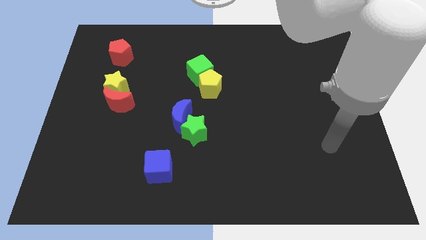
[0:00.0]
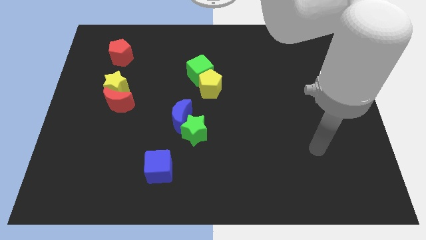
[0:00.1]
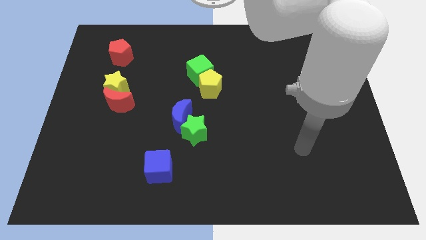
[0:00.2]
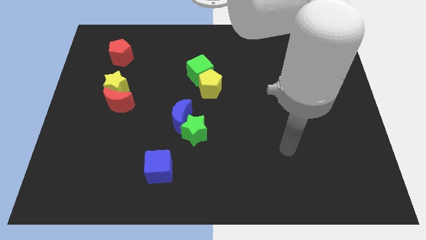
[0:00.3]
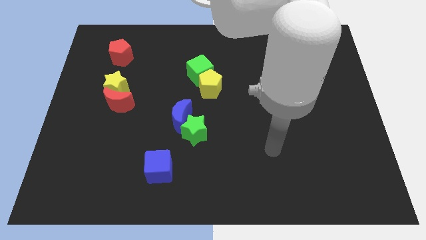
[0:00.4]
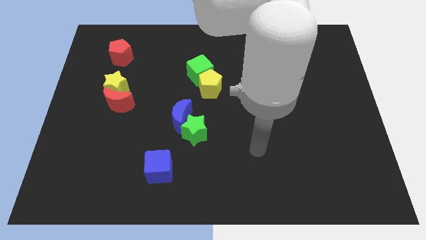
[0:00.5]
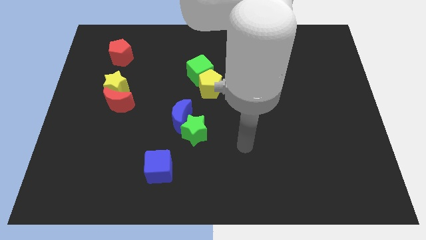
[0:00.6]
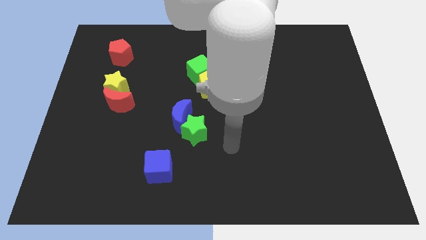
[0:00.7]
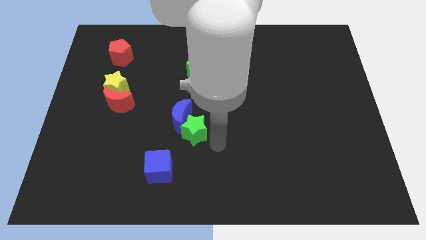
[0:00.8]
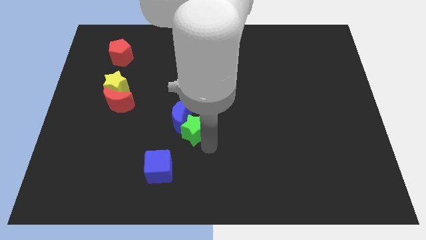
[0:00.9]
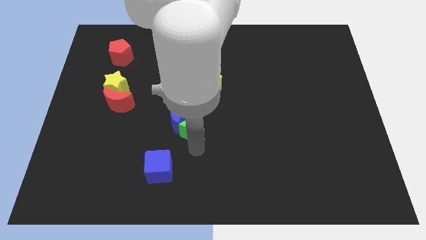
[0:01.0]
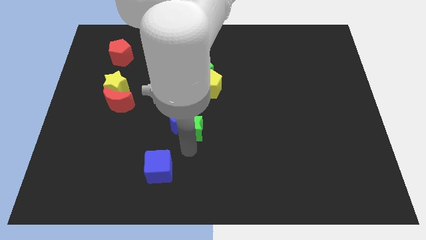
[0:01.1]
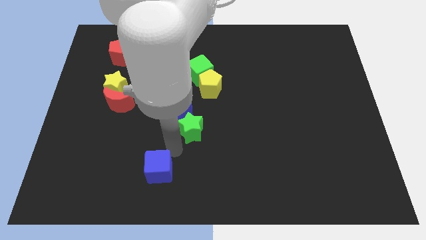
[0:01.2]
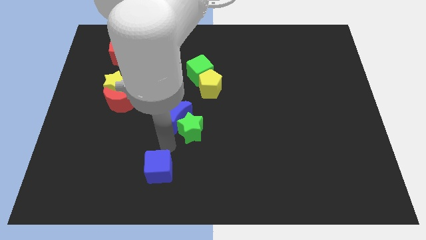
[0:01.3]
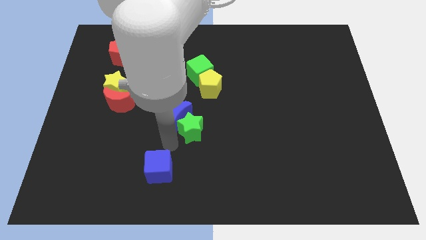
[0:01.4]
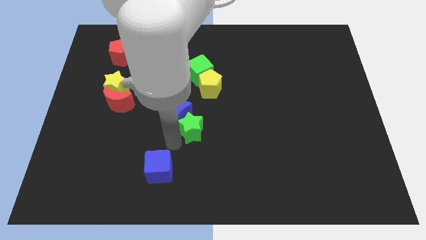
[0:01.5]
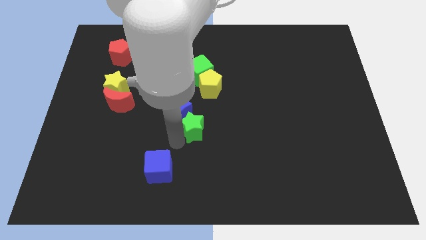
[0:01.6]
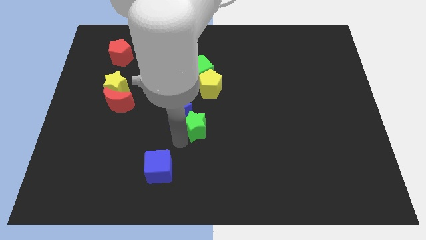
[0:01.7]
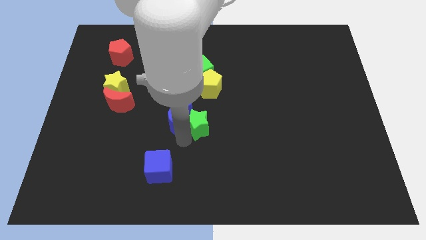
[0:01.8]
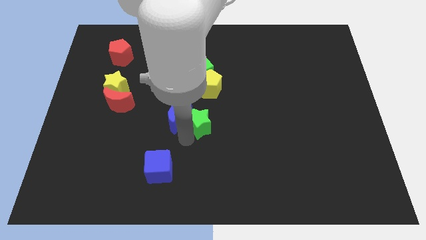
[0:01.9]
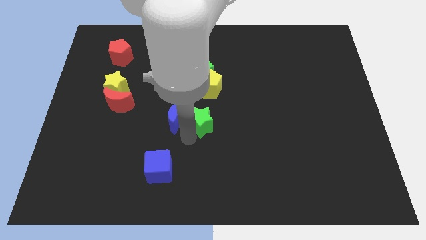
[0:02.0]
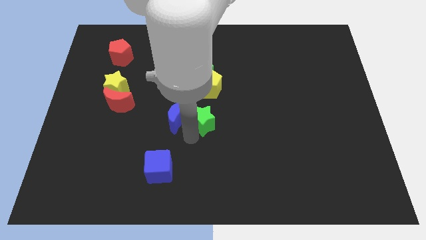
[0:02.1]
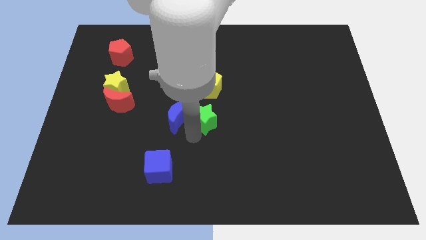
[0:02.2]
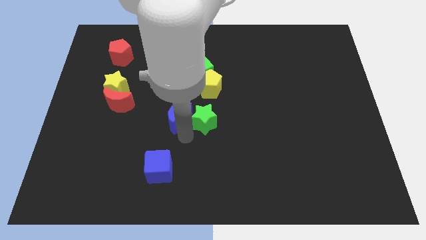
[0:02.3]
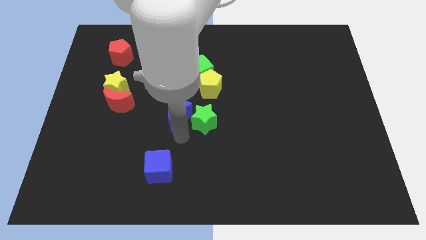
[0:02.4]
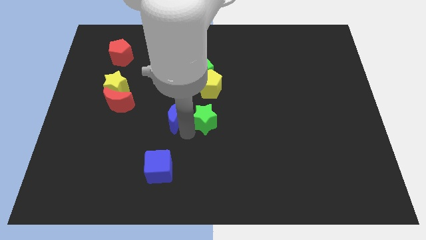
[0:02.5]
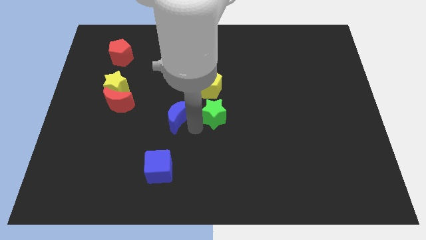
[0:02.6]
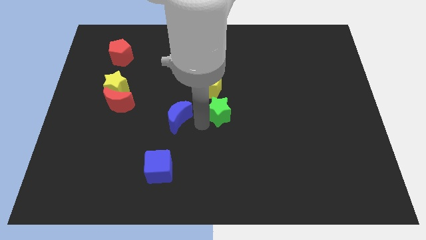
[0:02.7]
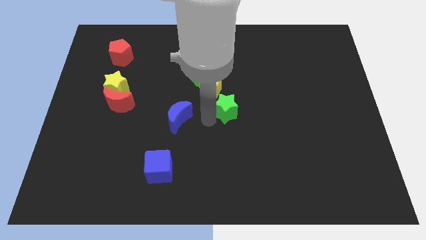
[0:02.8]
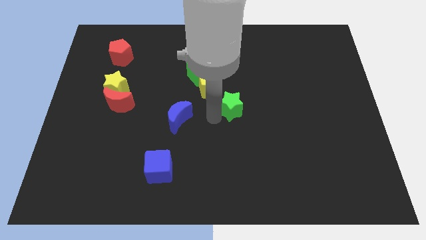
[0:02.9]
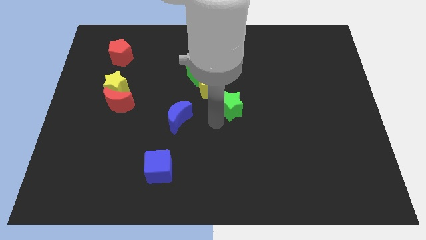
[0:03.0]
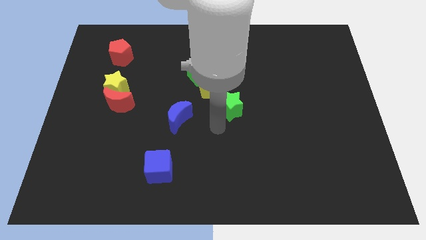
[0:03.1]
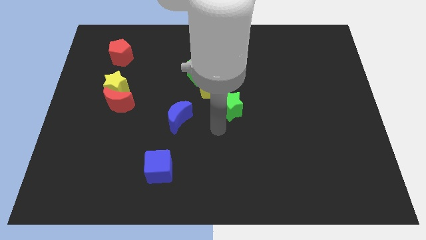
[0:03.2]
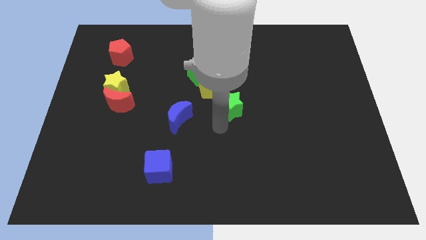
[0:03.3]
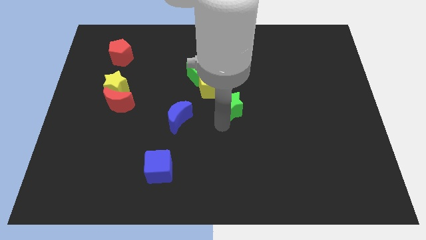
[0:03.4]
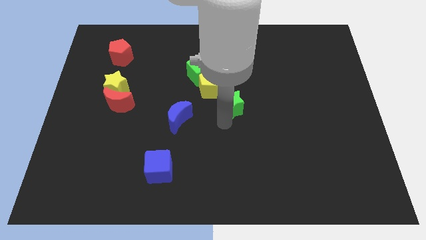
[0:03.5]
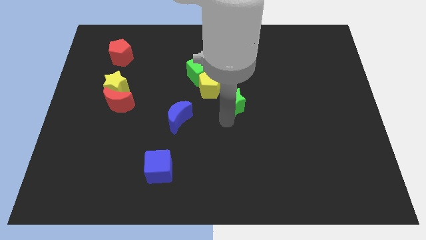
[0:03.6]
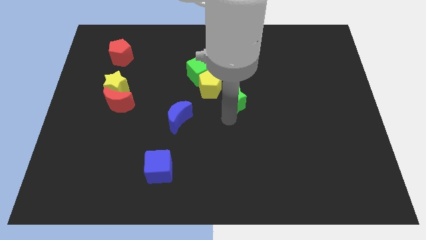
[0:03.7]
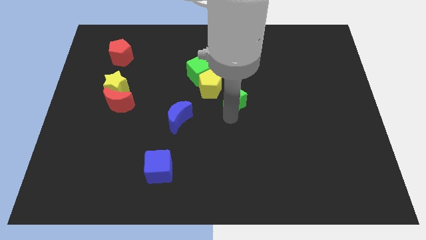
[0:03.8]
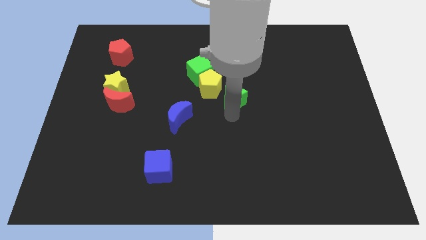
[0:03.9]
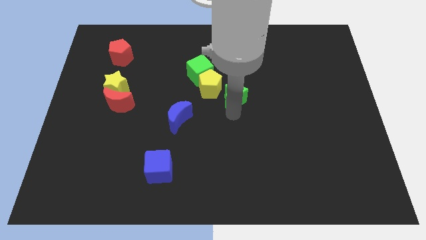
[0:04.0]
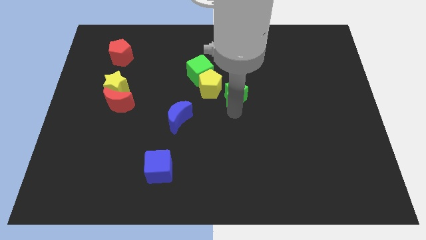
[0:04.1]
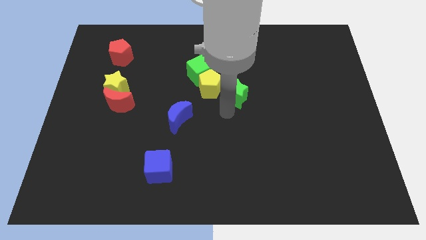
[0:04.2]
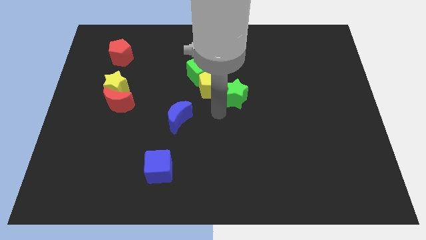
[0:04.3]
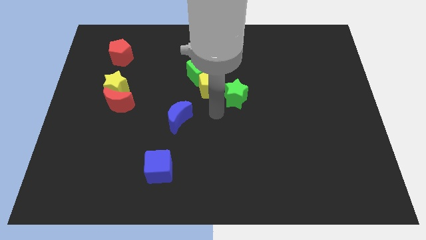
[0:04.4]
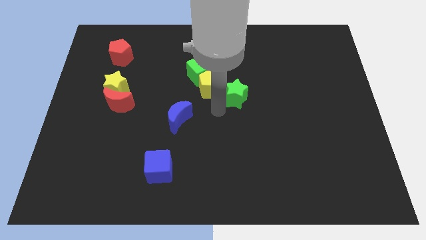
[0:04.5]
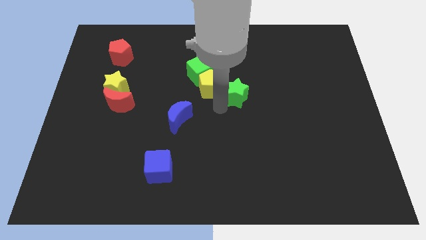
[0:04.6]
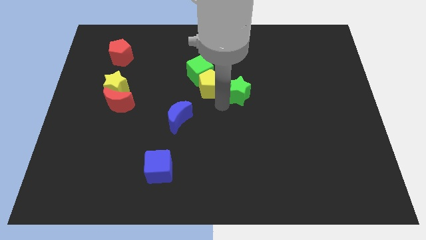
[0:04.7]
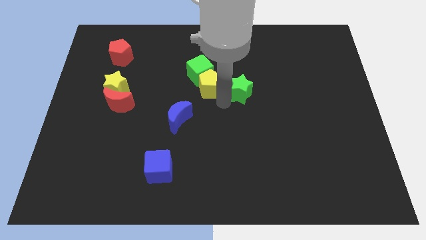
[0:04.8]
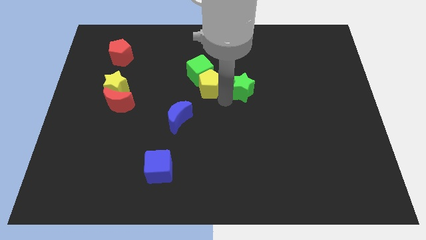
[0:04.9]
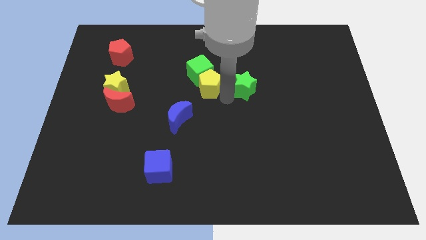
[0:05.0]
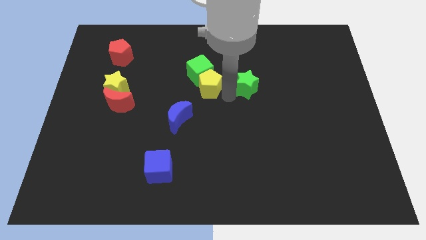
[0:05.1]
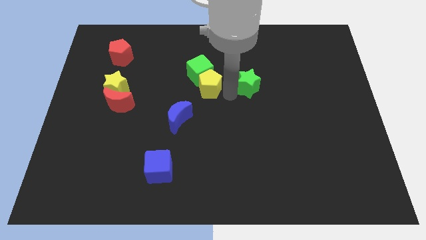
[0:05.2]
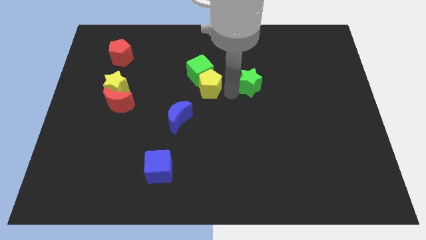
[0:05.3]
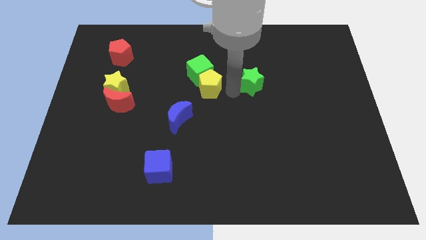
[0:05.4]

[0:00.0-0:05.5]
move the green star upwards and to the right diagonally

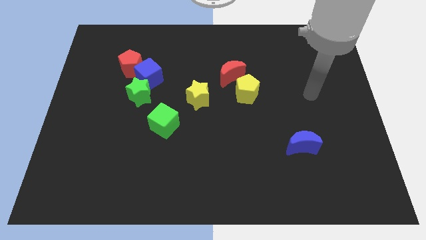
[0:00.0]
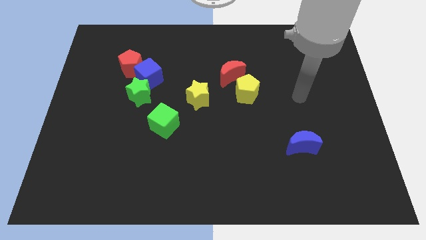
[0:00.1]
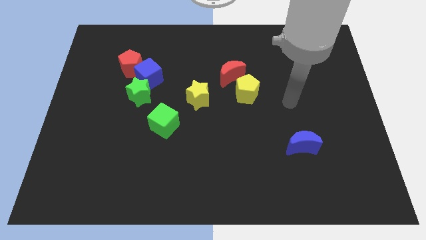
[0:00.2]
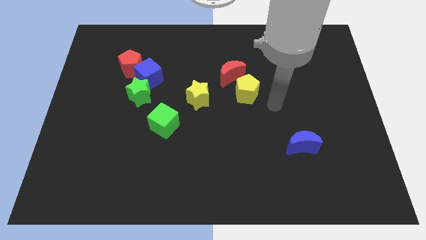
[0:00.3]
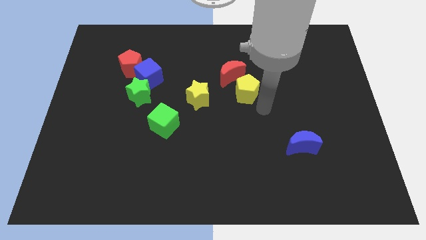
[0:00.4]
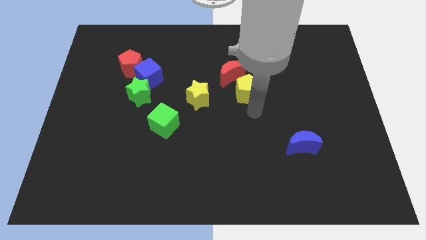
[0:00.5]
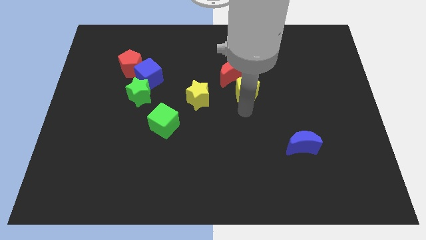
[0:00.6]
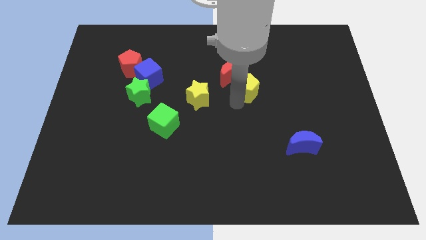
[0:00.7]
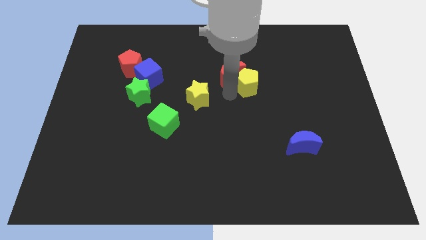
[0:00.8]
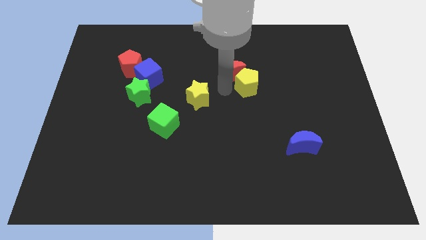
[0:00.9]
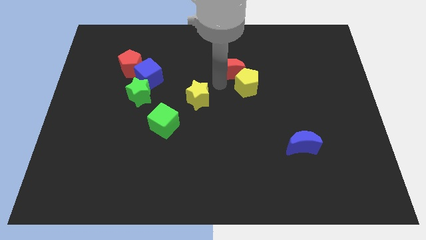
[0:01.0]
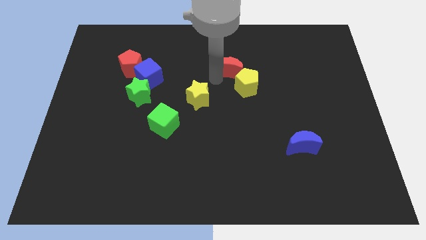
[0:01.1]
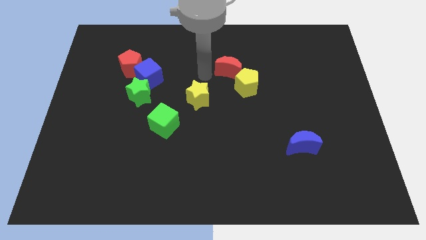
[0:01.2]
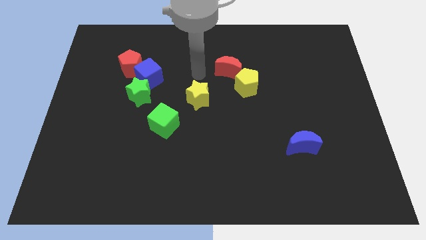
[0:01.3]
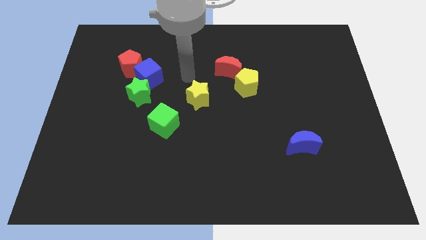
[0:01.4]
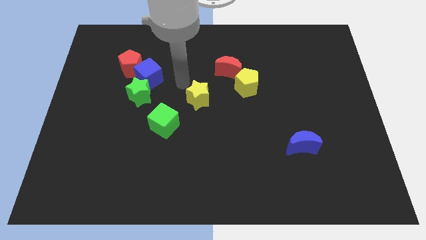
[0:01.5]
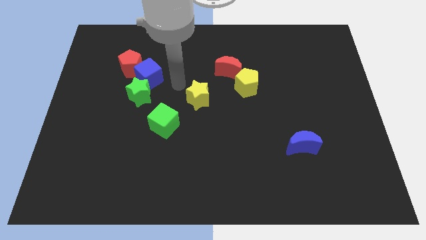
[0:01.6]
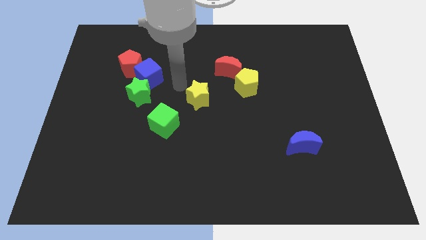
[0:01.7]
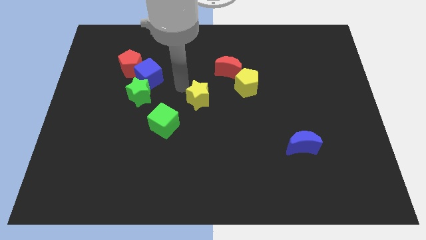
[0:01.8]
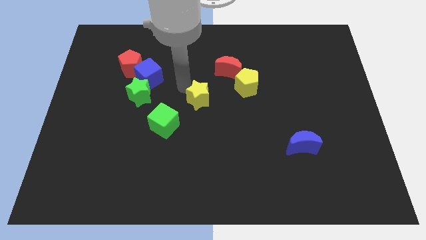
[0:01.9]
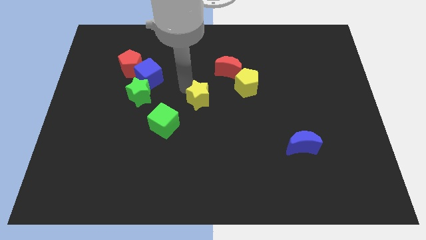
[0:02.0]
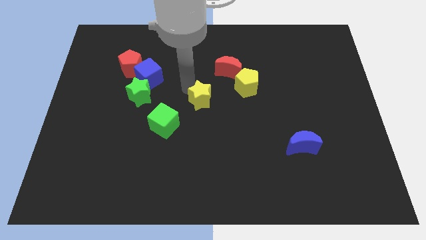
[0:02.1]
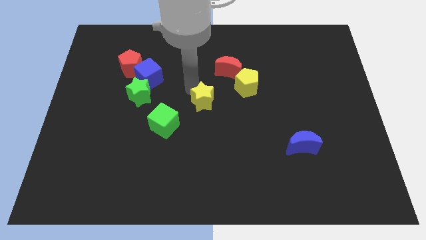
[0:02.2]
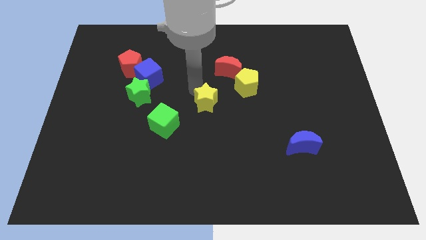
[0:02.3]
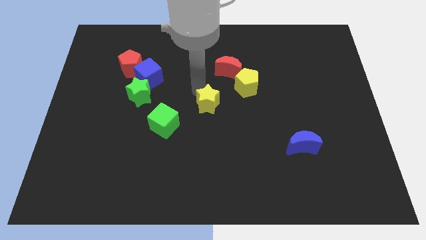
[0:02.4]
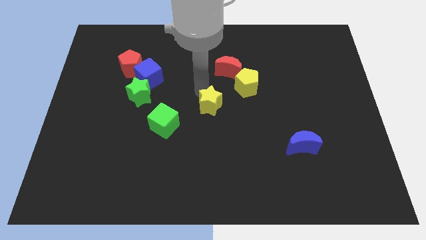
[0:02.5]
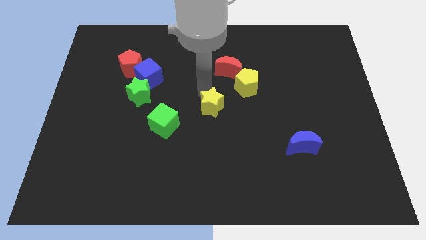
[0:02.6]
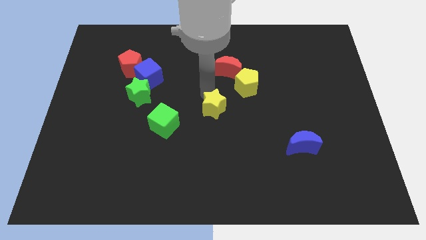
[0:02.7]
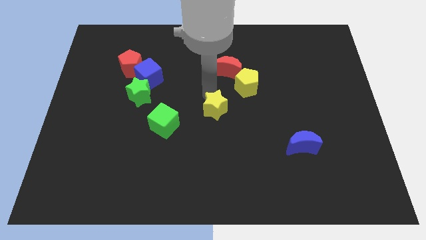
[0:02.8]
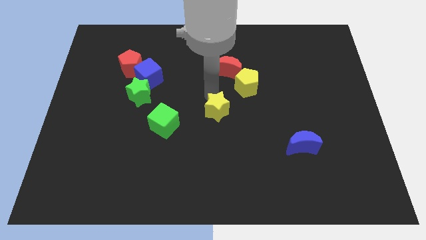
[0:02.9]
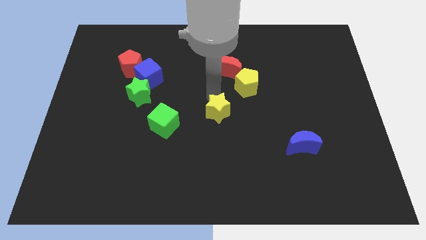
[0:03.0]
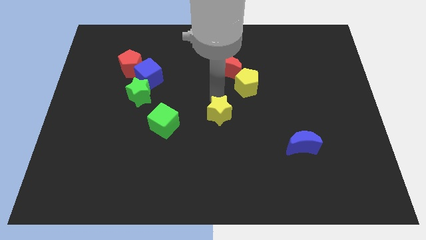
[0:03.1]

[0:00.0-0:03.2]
slide the yellow star downwards and right a bit
